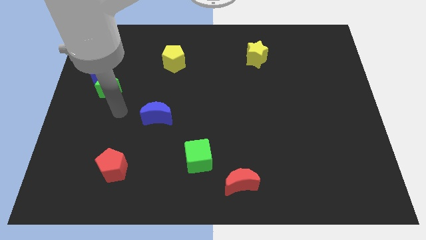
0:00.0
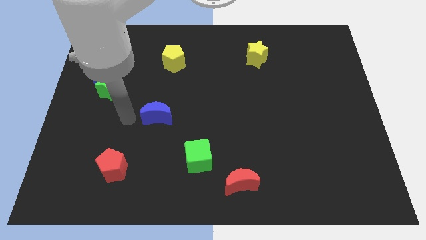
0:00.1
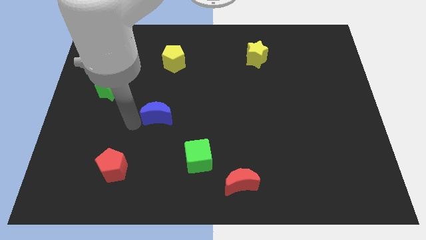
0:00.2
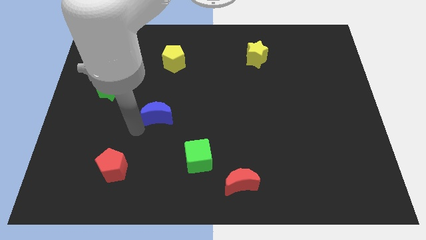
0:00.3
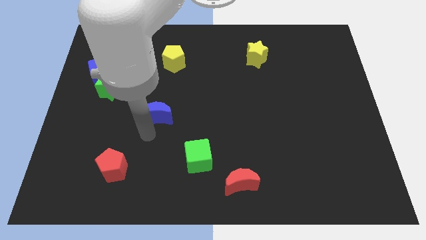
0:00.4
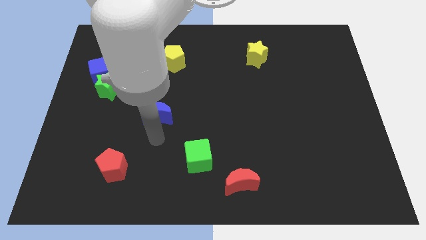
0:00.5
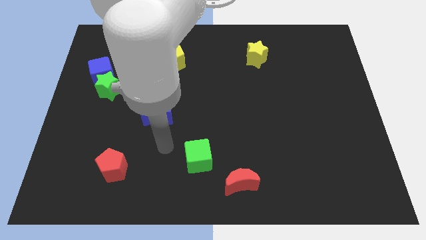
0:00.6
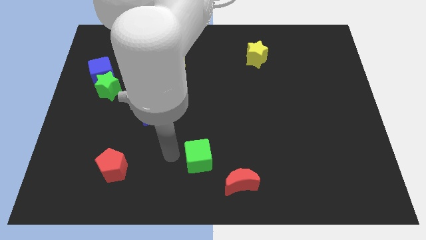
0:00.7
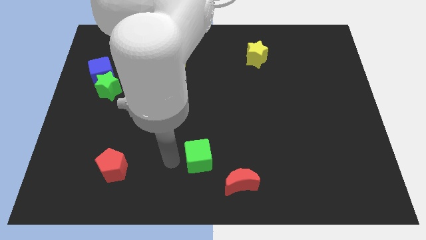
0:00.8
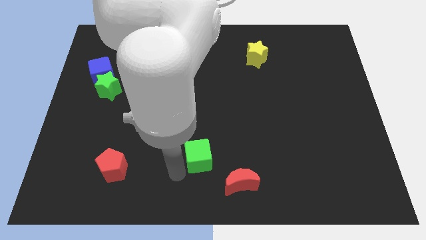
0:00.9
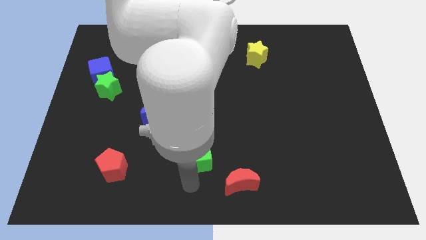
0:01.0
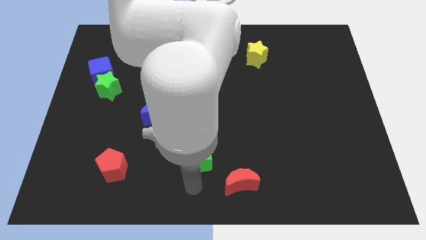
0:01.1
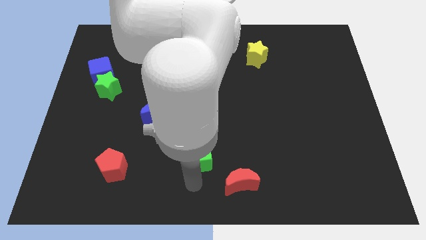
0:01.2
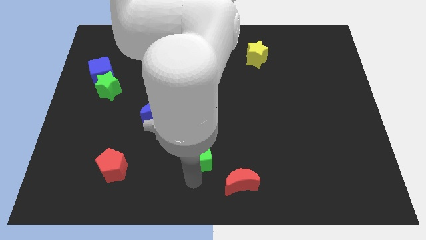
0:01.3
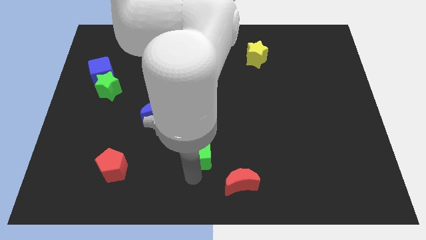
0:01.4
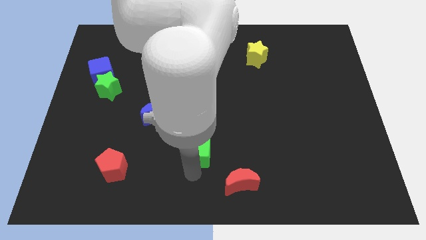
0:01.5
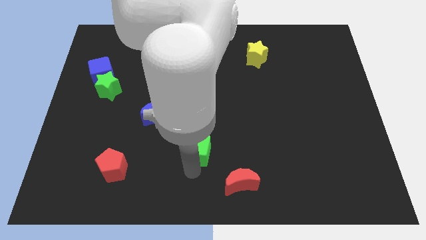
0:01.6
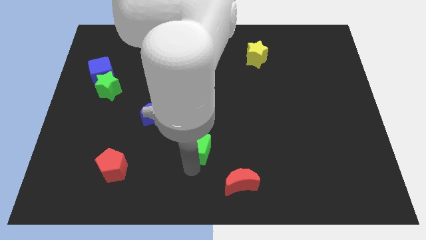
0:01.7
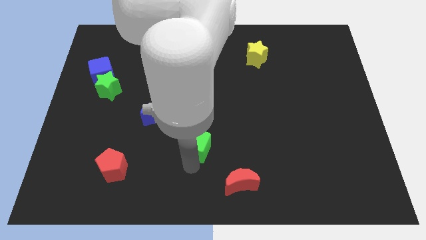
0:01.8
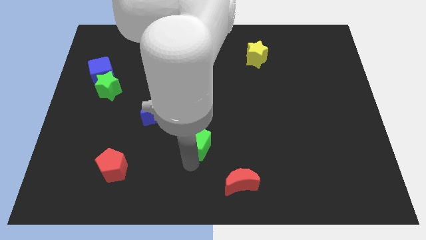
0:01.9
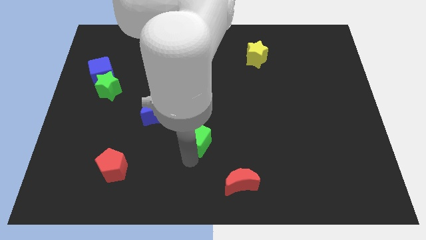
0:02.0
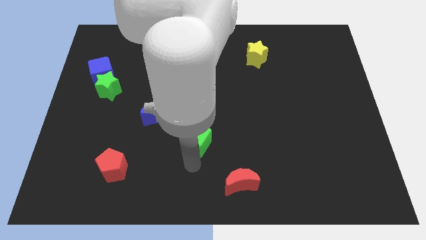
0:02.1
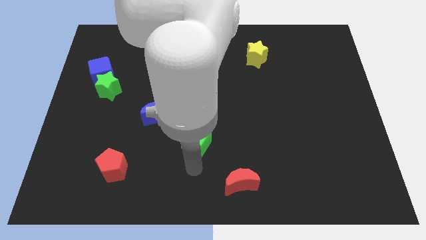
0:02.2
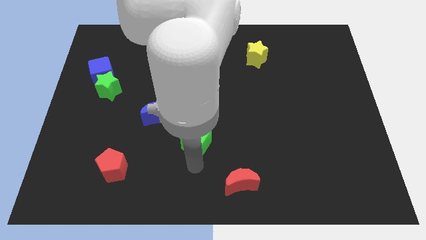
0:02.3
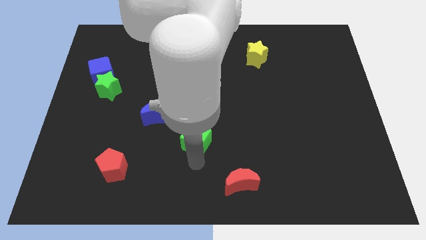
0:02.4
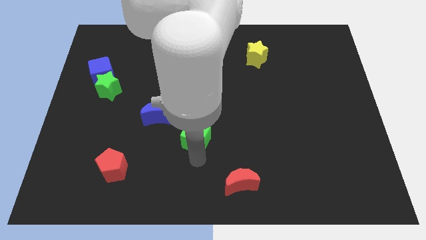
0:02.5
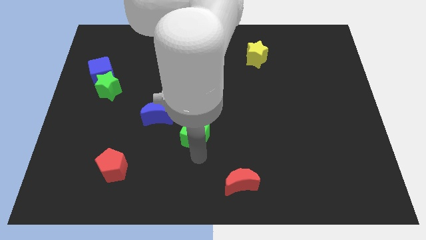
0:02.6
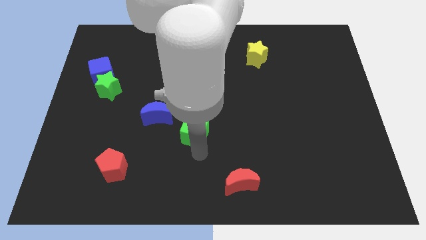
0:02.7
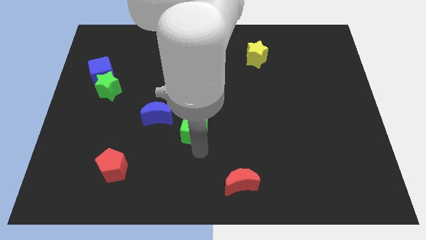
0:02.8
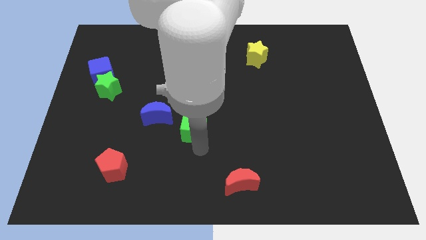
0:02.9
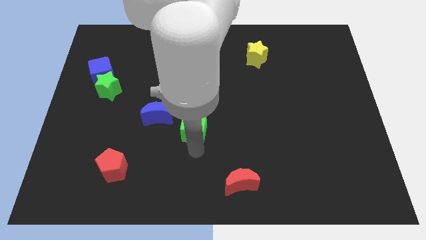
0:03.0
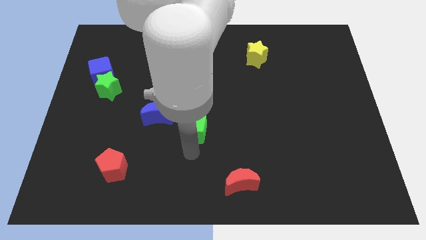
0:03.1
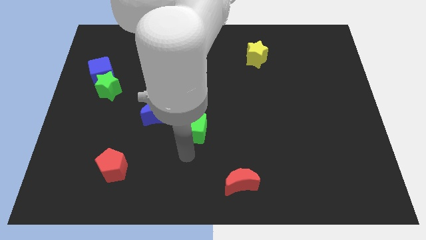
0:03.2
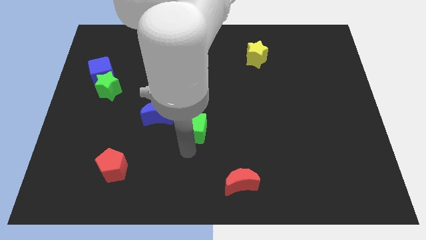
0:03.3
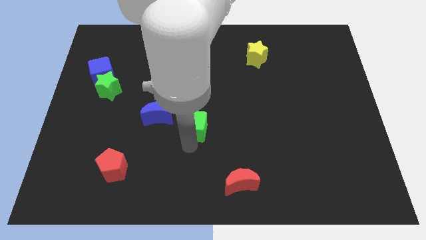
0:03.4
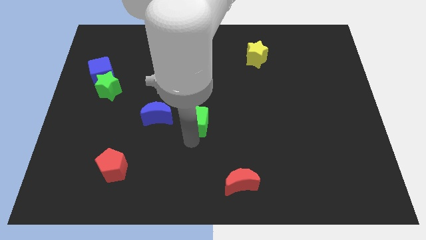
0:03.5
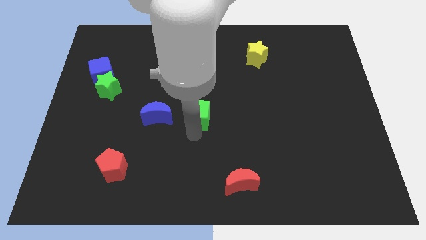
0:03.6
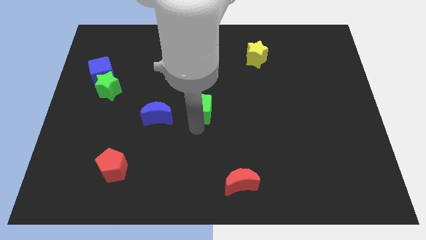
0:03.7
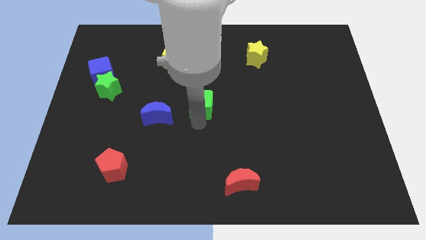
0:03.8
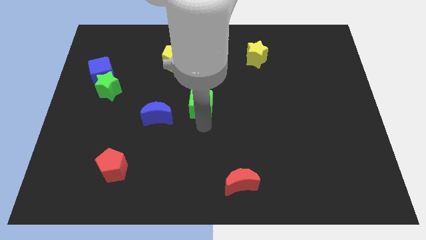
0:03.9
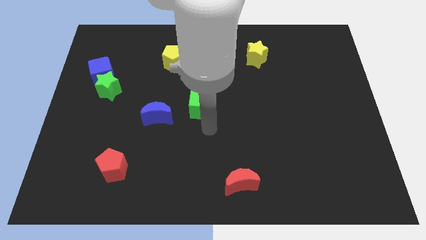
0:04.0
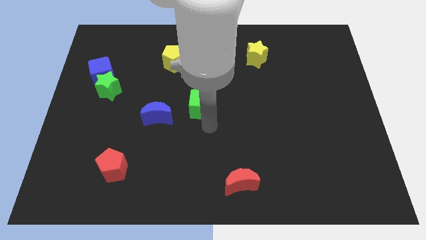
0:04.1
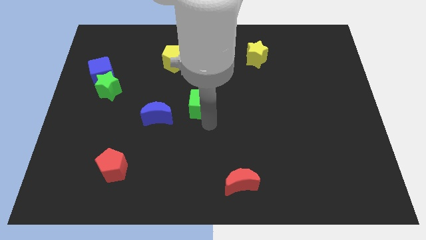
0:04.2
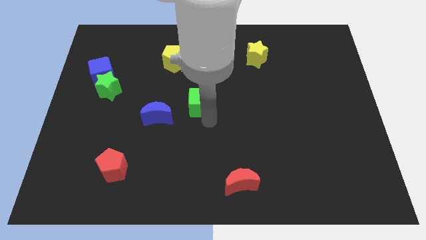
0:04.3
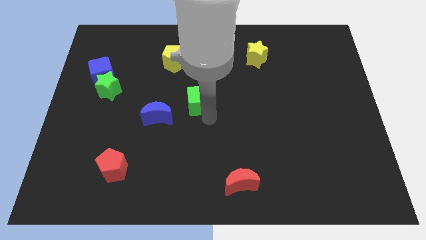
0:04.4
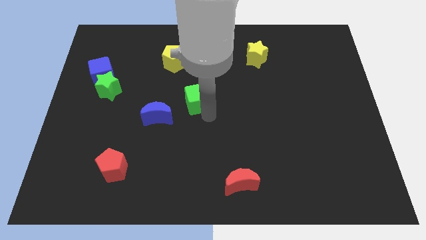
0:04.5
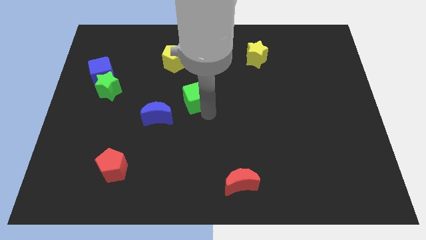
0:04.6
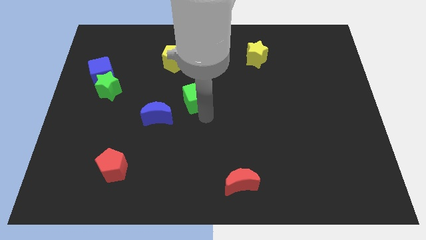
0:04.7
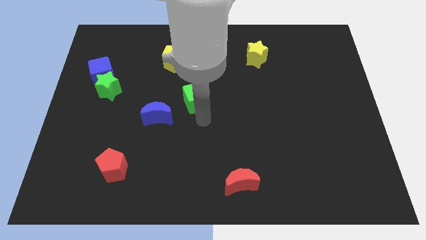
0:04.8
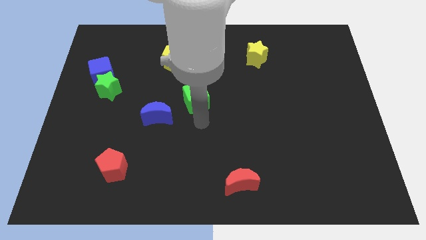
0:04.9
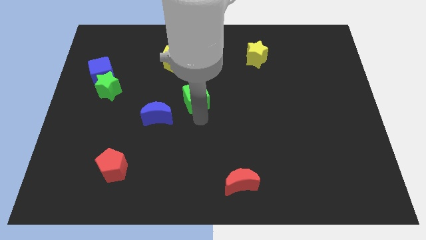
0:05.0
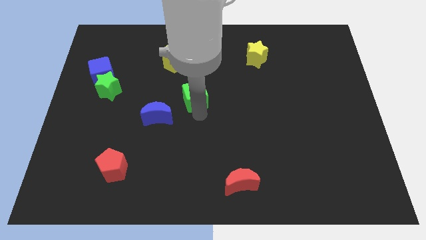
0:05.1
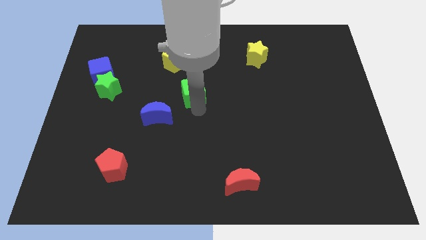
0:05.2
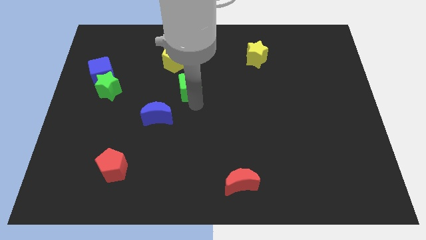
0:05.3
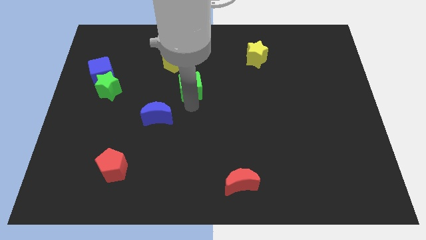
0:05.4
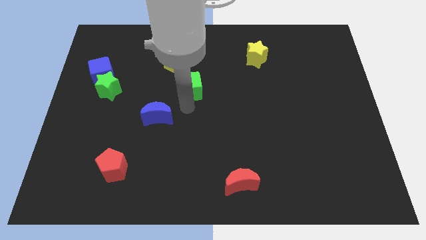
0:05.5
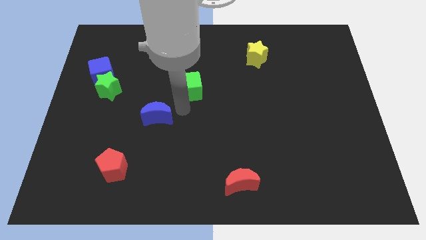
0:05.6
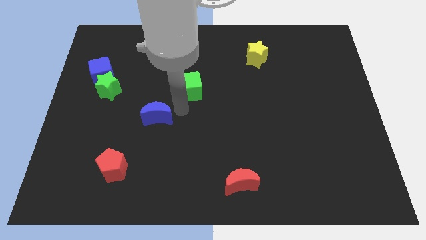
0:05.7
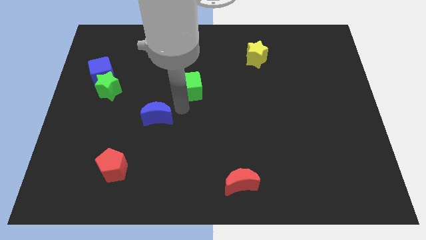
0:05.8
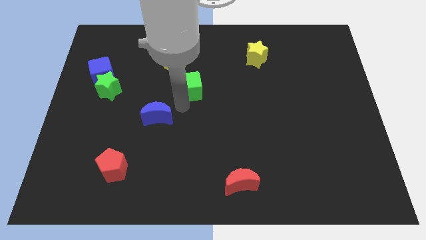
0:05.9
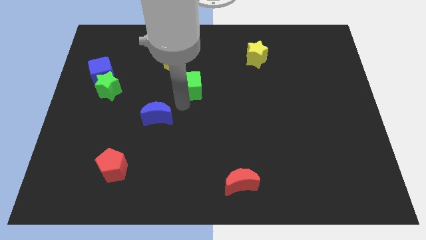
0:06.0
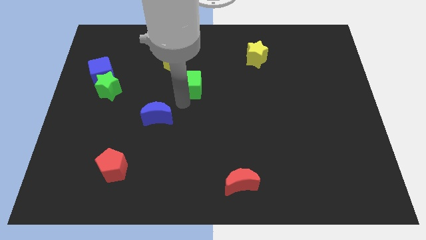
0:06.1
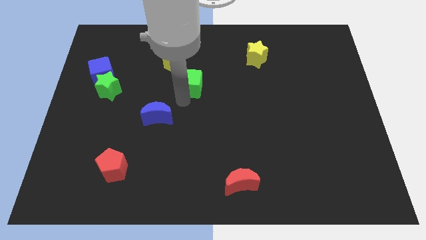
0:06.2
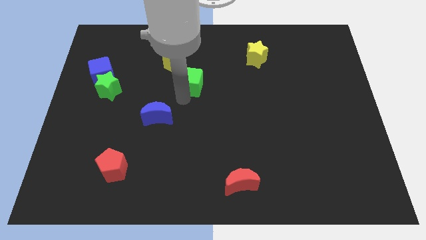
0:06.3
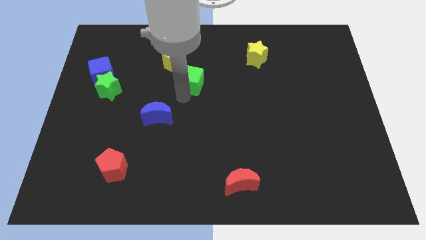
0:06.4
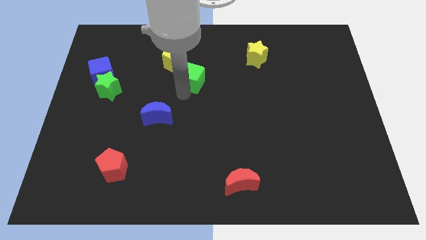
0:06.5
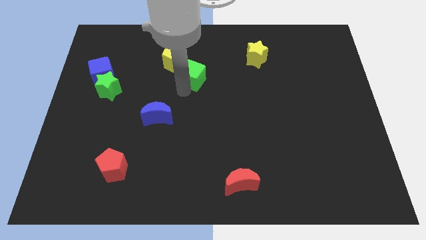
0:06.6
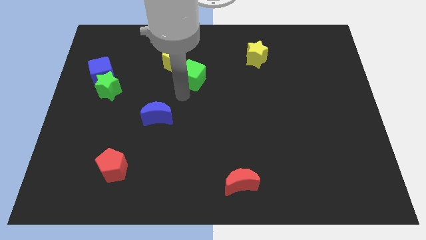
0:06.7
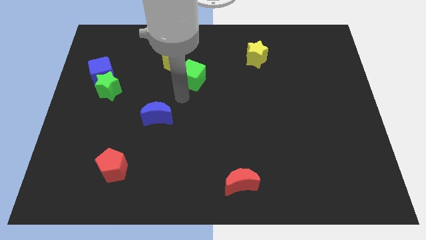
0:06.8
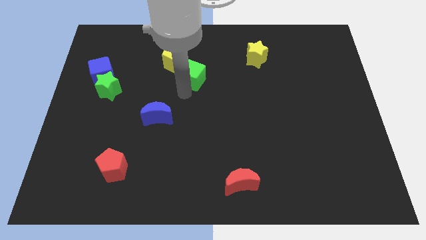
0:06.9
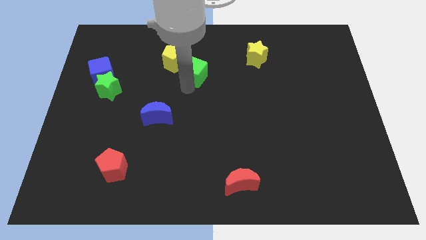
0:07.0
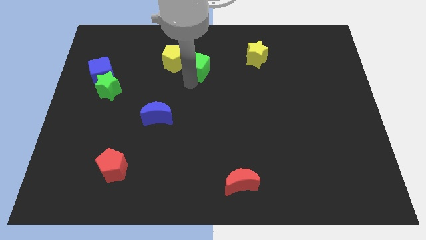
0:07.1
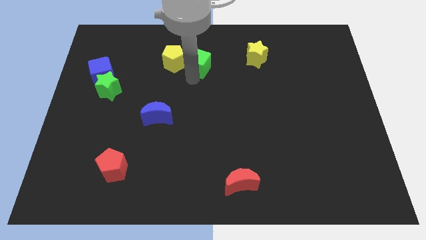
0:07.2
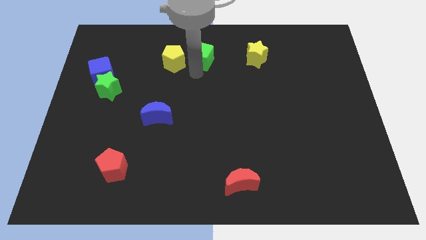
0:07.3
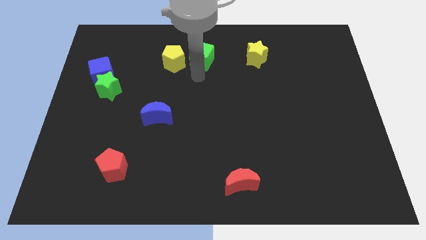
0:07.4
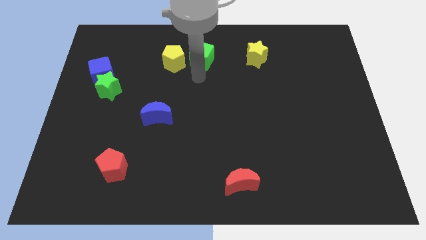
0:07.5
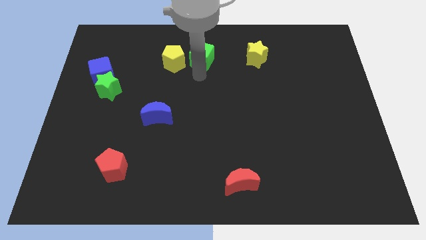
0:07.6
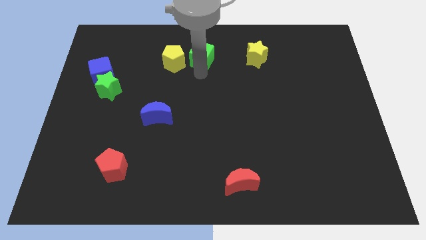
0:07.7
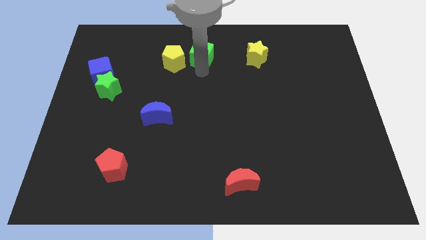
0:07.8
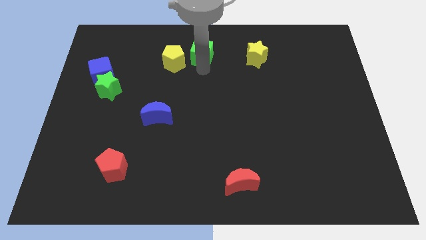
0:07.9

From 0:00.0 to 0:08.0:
move the green cube to the top side
